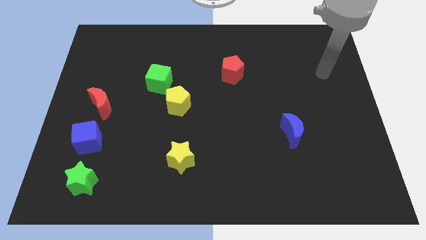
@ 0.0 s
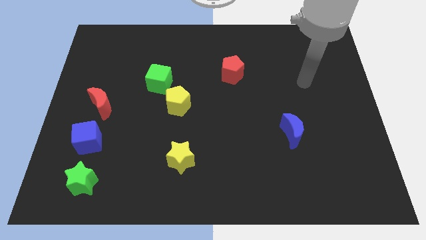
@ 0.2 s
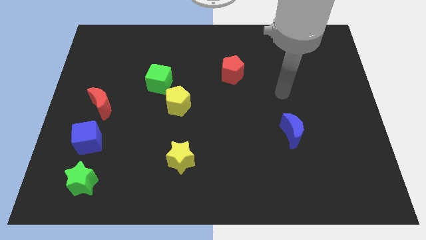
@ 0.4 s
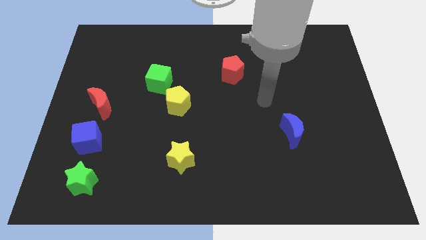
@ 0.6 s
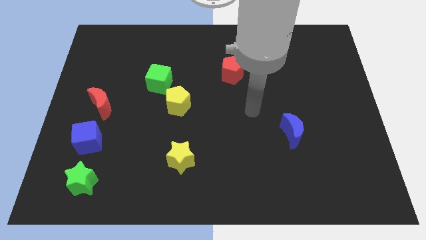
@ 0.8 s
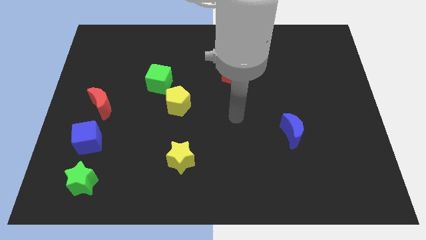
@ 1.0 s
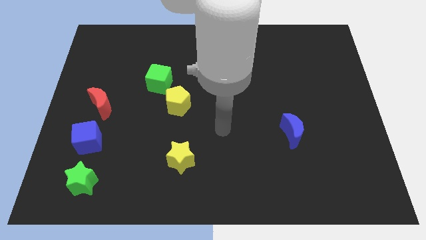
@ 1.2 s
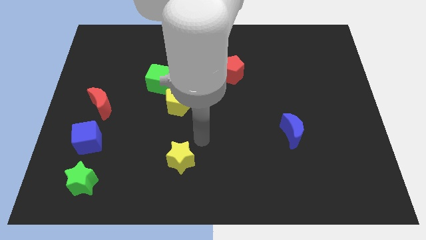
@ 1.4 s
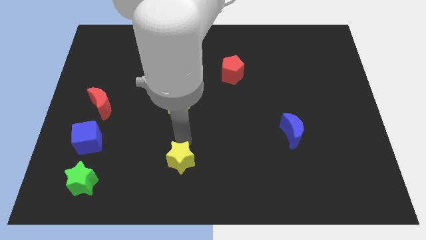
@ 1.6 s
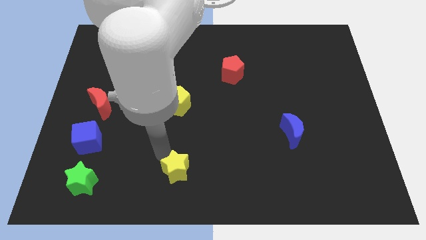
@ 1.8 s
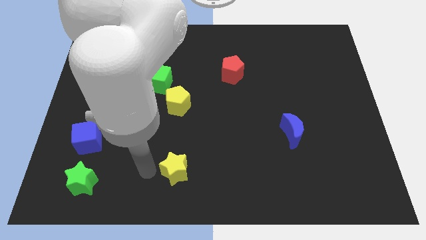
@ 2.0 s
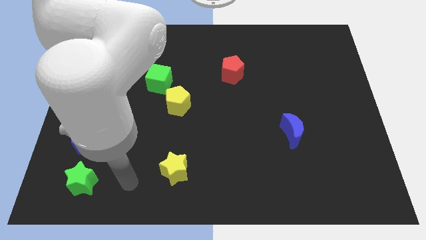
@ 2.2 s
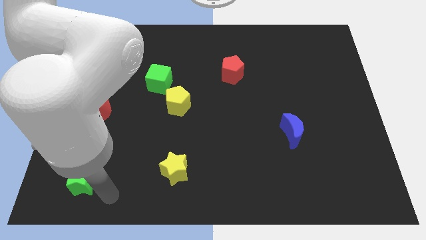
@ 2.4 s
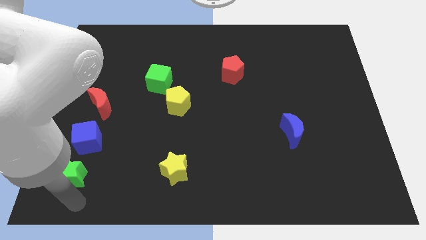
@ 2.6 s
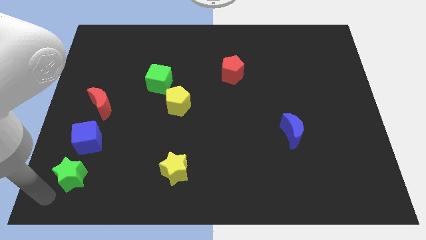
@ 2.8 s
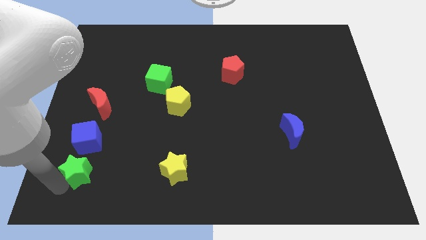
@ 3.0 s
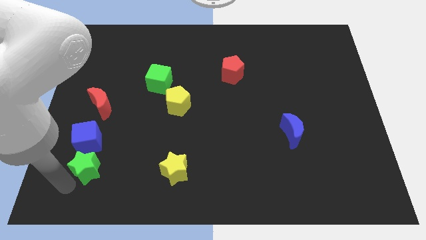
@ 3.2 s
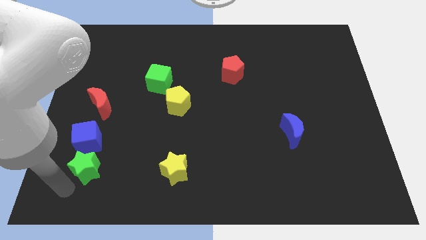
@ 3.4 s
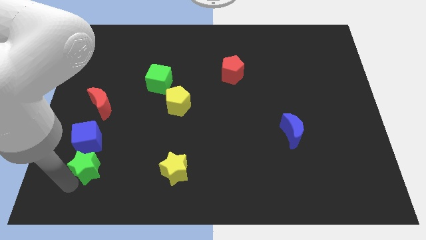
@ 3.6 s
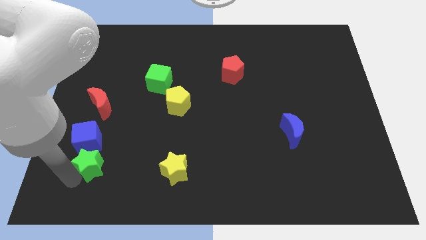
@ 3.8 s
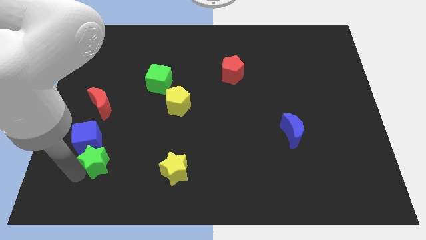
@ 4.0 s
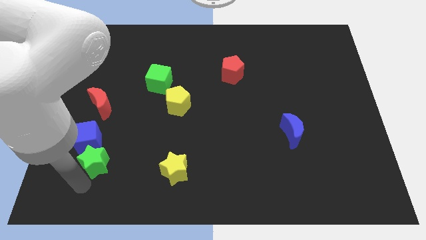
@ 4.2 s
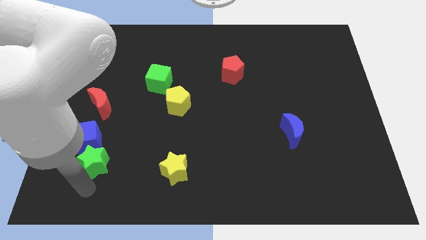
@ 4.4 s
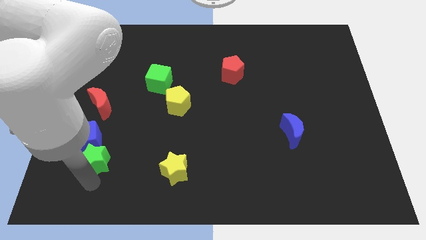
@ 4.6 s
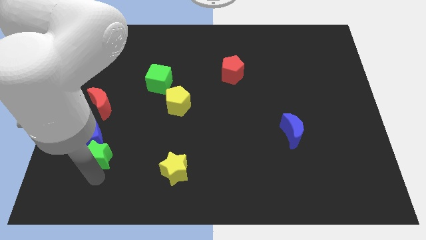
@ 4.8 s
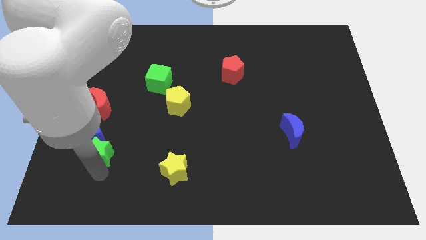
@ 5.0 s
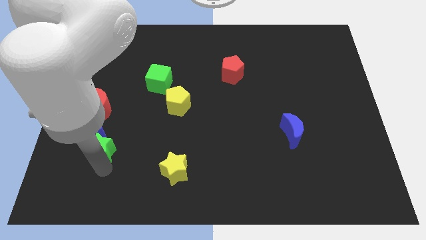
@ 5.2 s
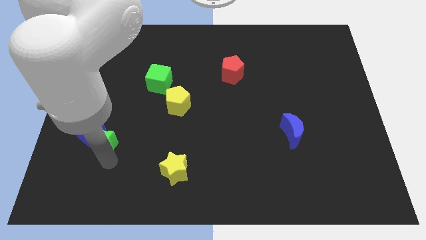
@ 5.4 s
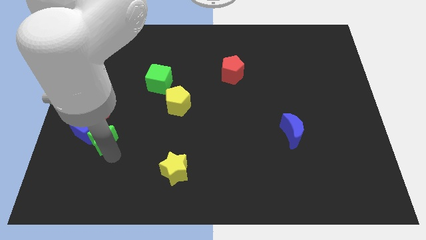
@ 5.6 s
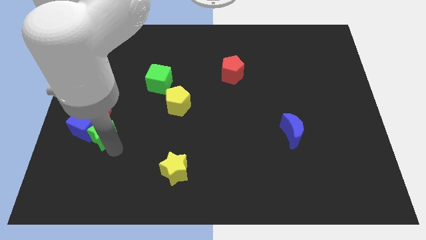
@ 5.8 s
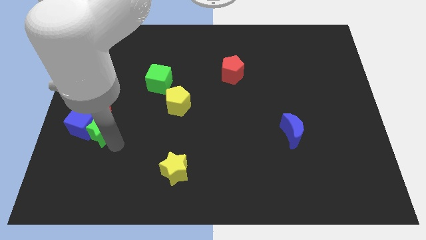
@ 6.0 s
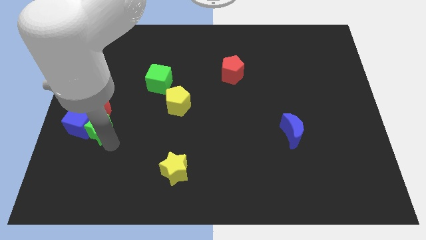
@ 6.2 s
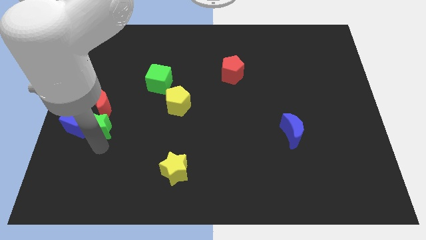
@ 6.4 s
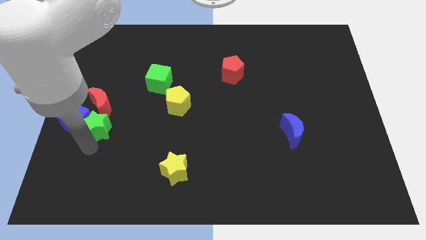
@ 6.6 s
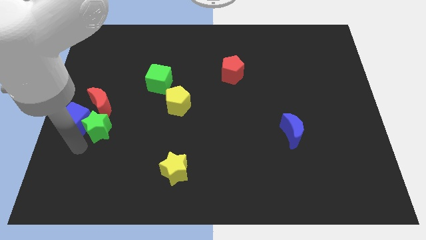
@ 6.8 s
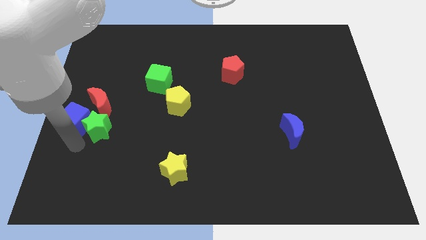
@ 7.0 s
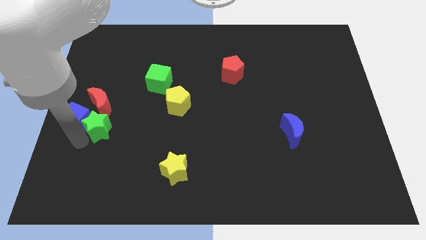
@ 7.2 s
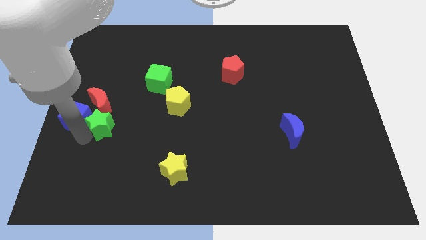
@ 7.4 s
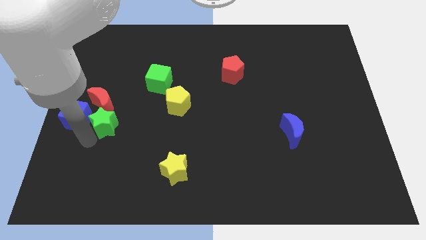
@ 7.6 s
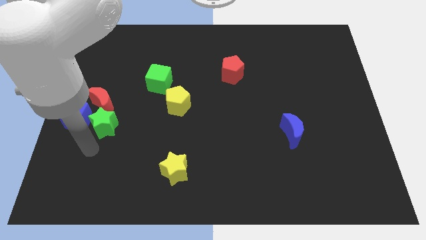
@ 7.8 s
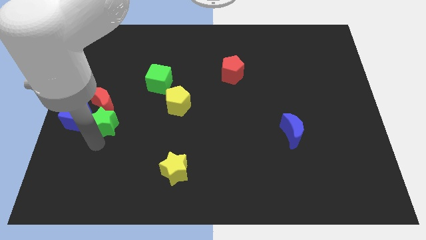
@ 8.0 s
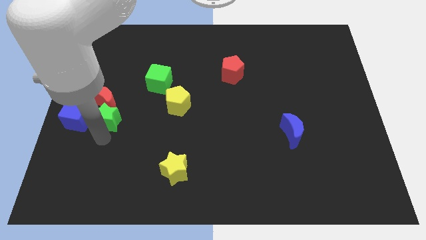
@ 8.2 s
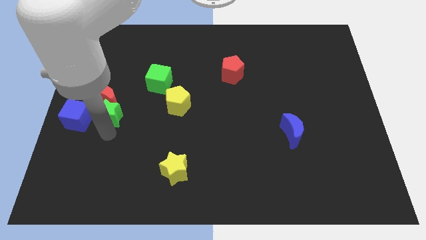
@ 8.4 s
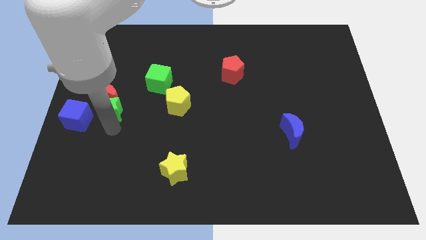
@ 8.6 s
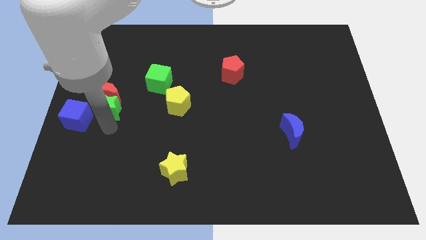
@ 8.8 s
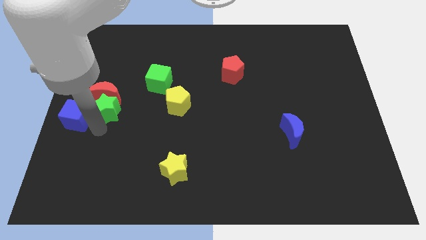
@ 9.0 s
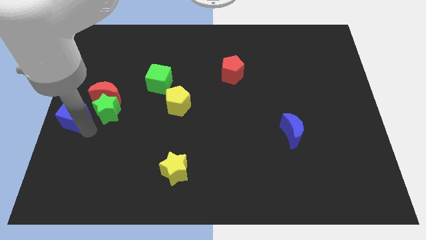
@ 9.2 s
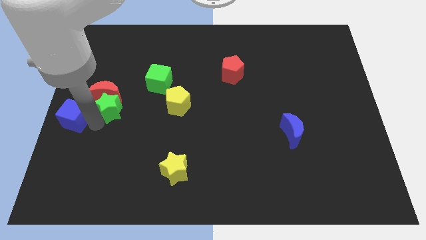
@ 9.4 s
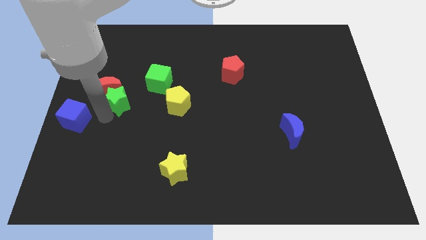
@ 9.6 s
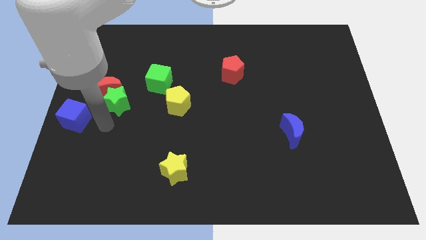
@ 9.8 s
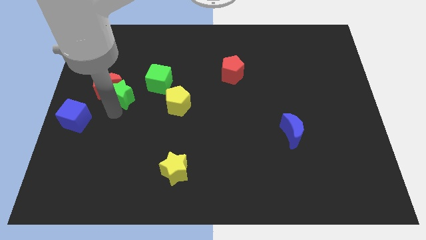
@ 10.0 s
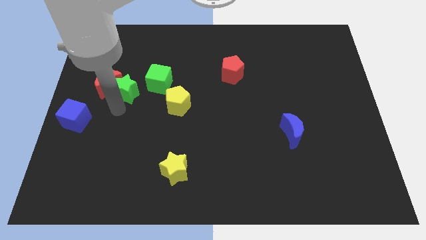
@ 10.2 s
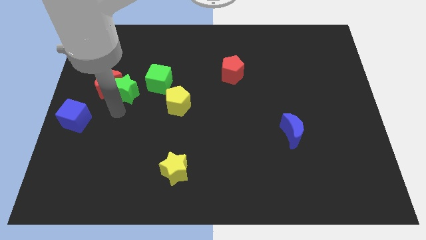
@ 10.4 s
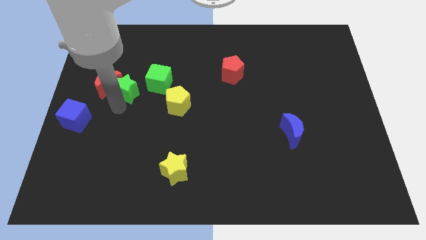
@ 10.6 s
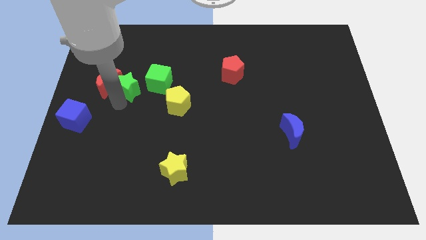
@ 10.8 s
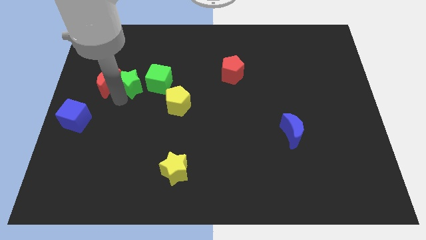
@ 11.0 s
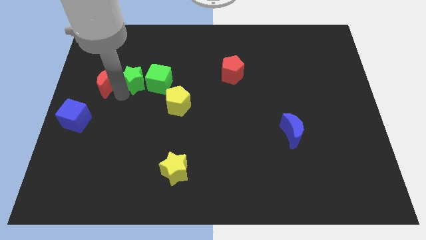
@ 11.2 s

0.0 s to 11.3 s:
slide the green star to the top left of the green cube
